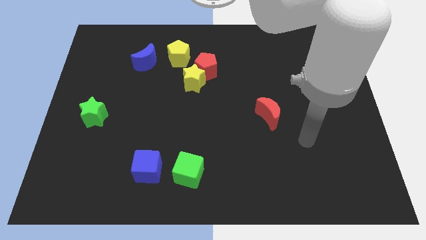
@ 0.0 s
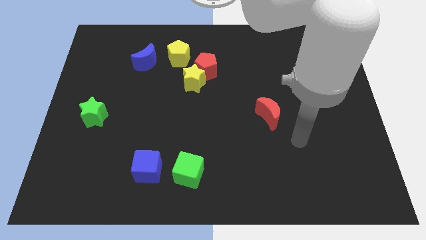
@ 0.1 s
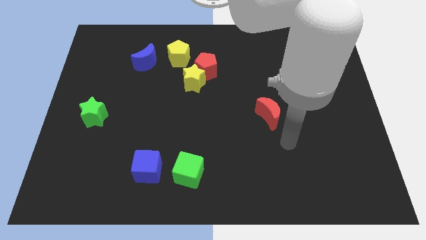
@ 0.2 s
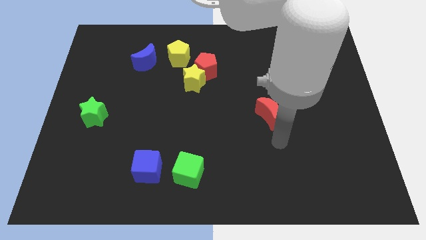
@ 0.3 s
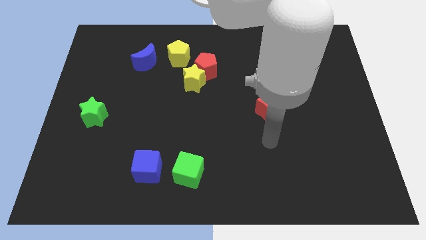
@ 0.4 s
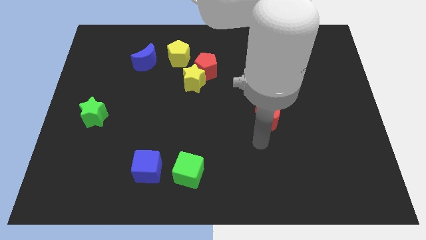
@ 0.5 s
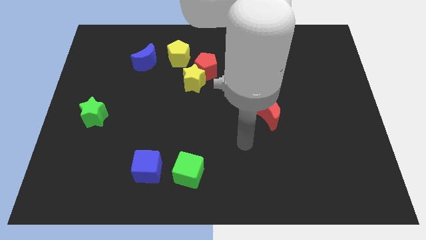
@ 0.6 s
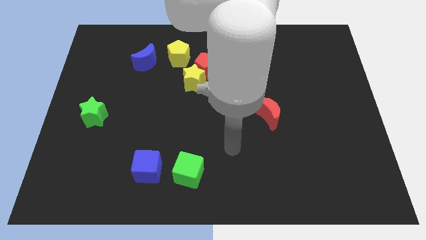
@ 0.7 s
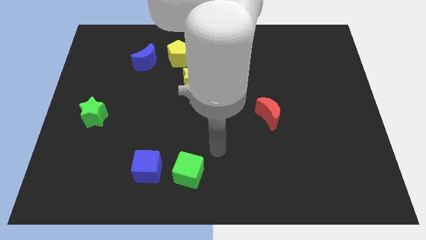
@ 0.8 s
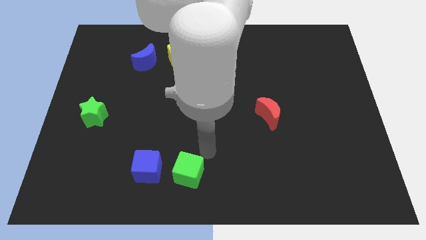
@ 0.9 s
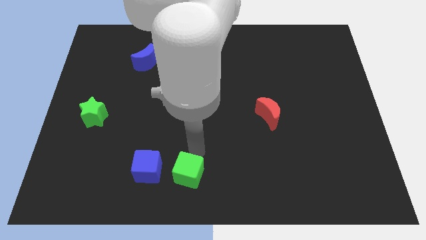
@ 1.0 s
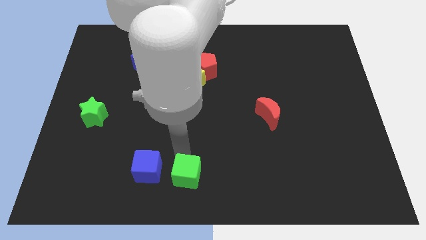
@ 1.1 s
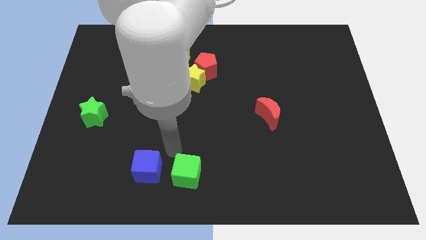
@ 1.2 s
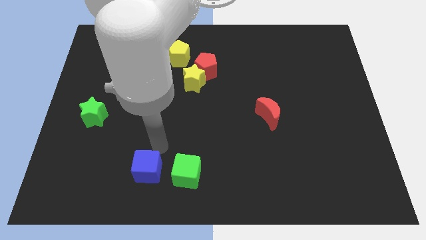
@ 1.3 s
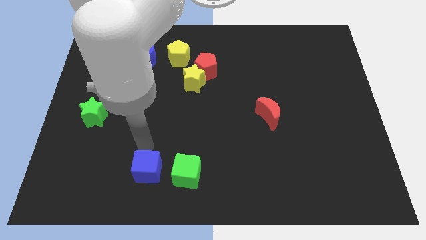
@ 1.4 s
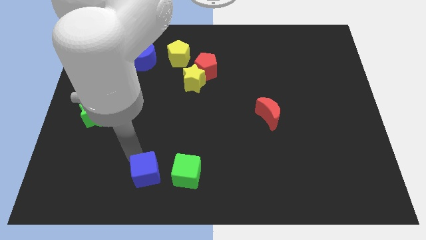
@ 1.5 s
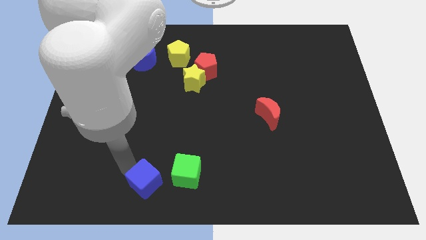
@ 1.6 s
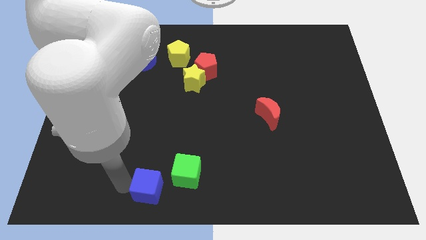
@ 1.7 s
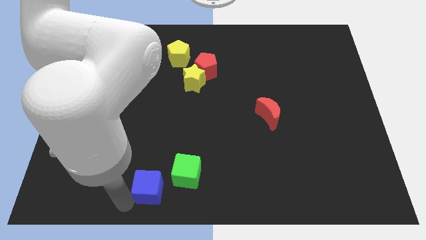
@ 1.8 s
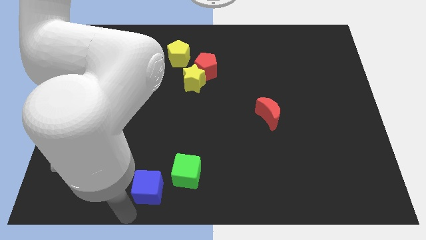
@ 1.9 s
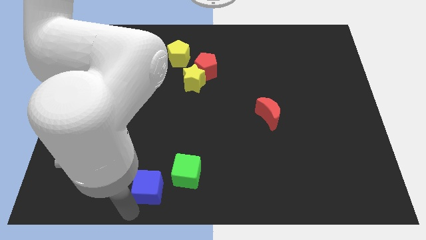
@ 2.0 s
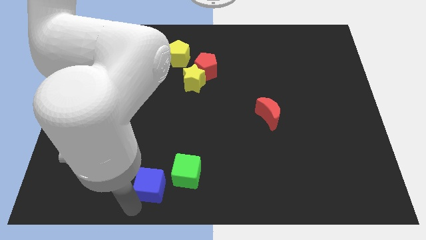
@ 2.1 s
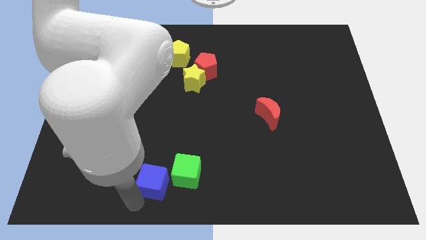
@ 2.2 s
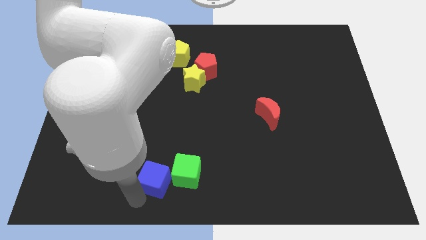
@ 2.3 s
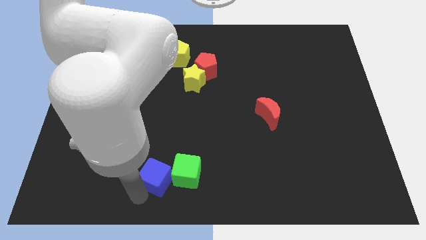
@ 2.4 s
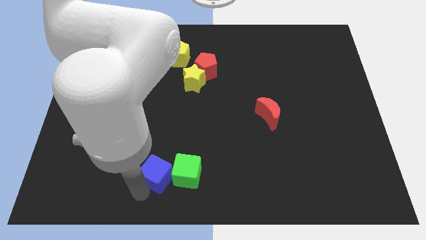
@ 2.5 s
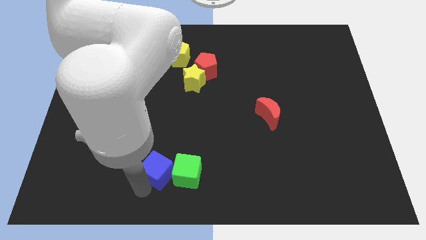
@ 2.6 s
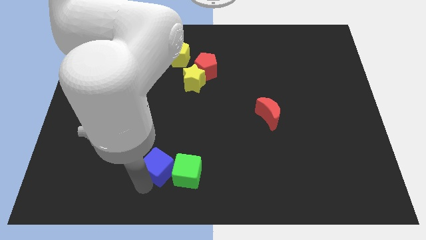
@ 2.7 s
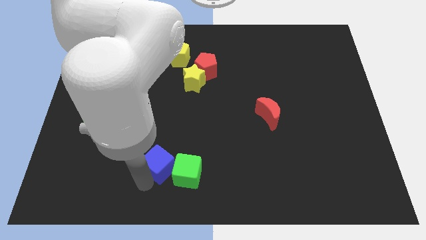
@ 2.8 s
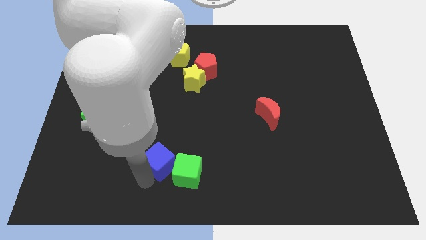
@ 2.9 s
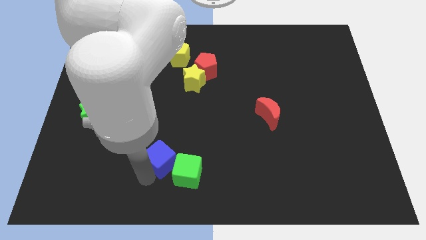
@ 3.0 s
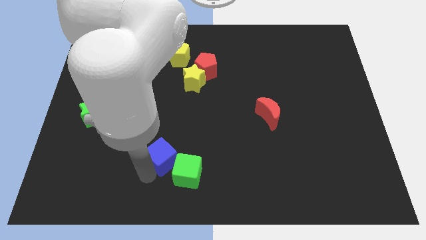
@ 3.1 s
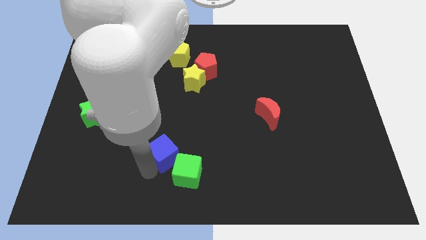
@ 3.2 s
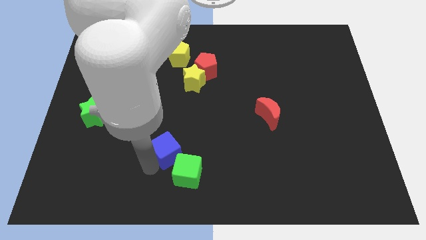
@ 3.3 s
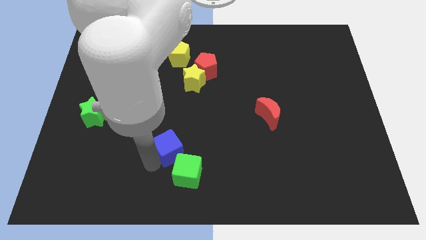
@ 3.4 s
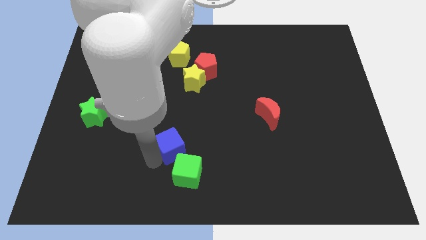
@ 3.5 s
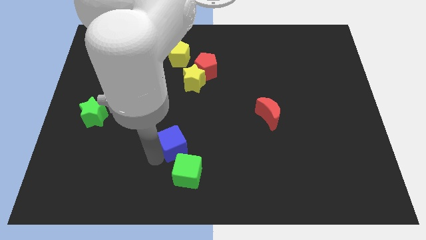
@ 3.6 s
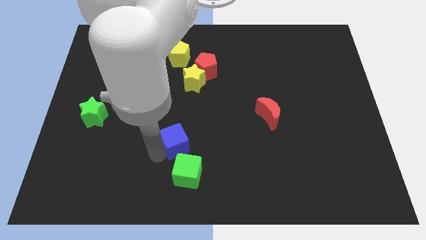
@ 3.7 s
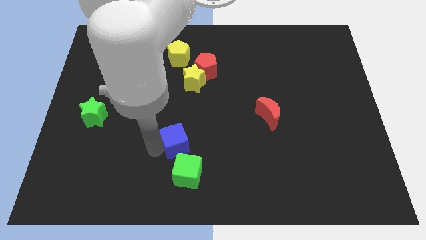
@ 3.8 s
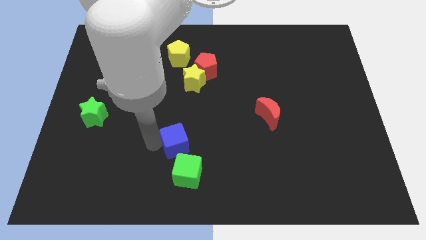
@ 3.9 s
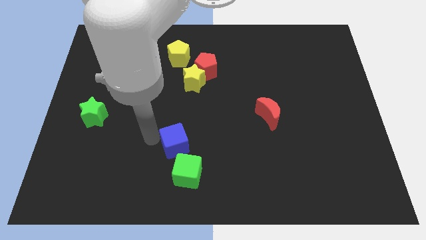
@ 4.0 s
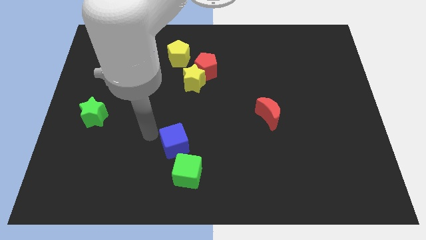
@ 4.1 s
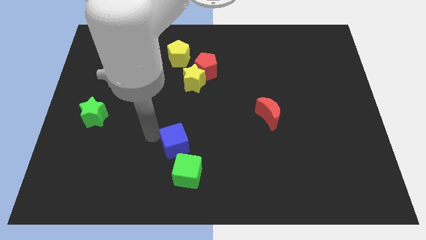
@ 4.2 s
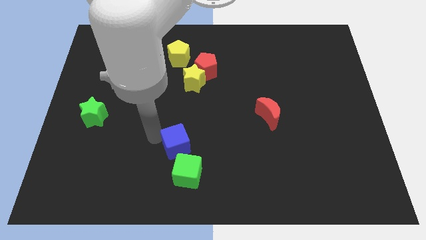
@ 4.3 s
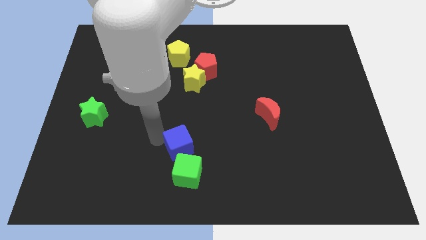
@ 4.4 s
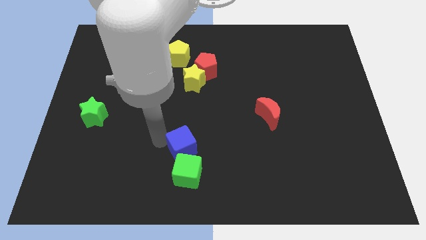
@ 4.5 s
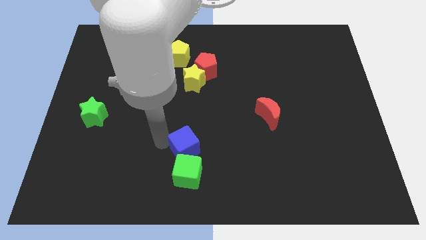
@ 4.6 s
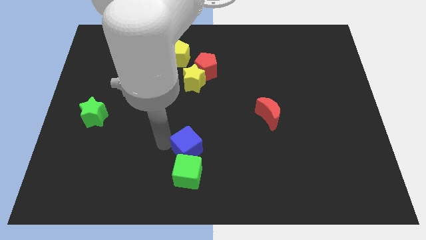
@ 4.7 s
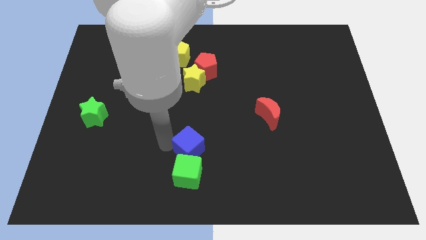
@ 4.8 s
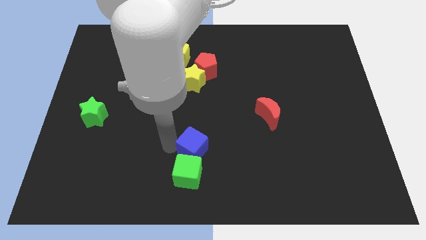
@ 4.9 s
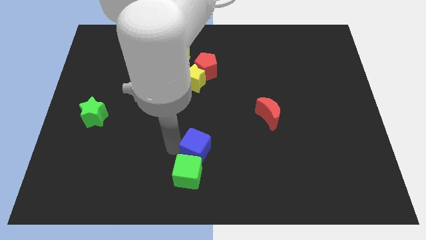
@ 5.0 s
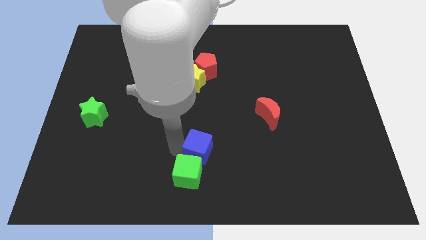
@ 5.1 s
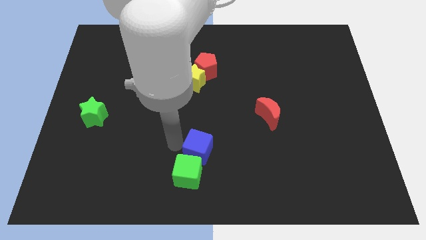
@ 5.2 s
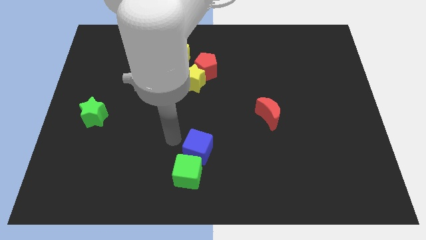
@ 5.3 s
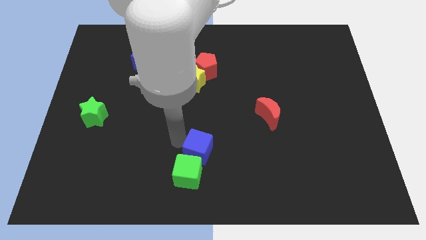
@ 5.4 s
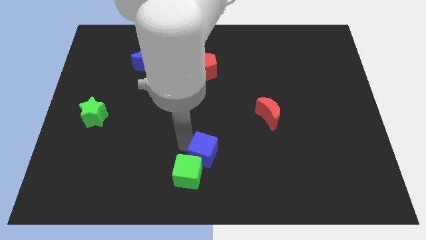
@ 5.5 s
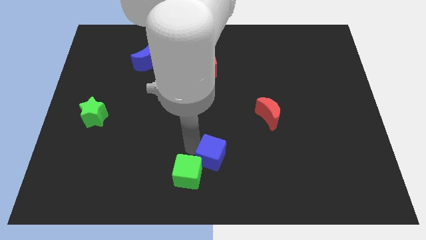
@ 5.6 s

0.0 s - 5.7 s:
move the blue cube to the right side of the green cube

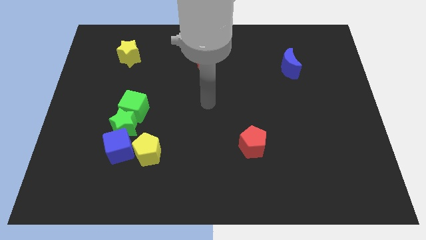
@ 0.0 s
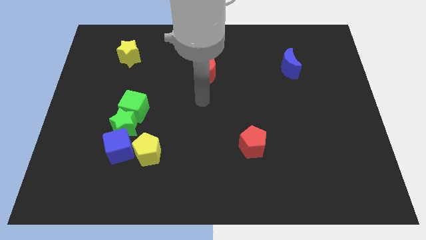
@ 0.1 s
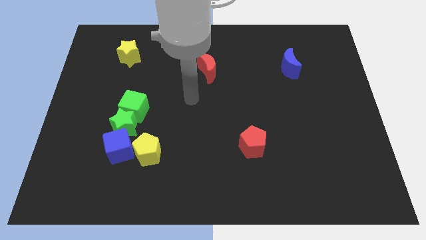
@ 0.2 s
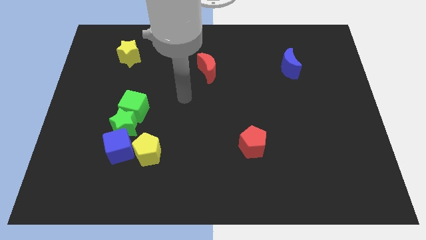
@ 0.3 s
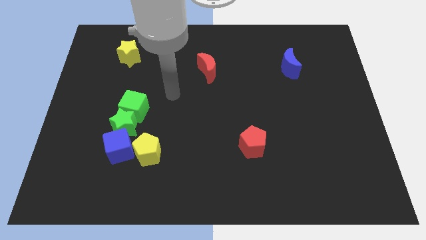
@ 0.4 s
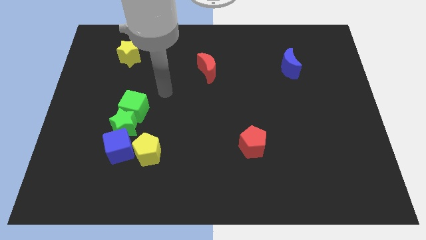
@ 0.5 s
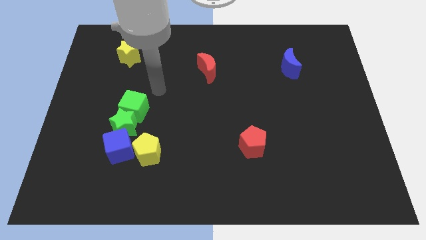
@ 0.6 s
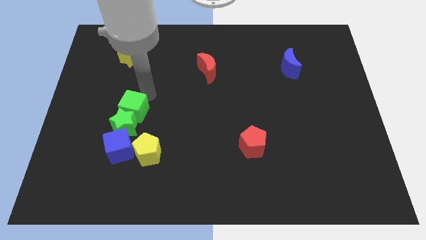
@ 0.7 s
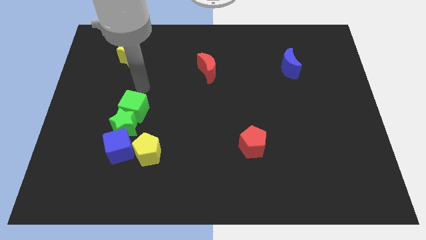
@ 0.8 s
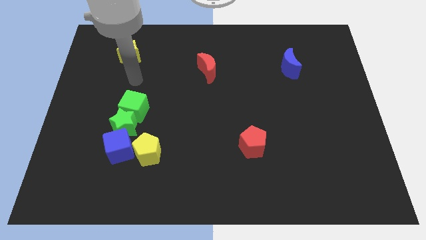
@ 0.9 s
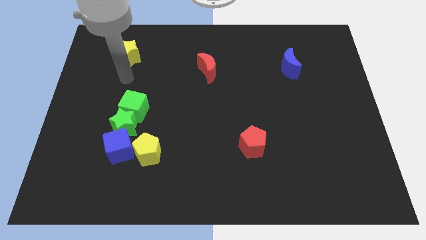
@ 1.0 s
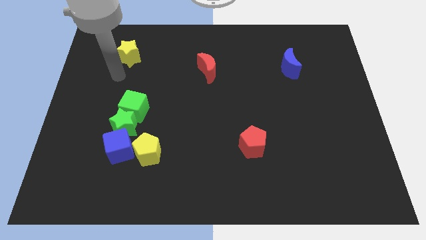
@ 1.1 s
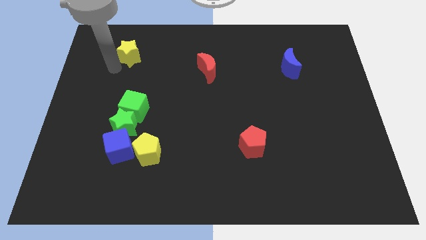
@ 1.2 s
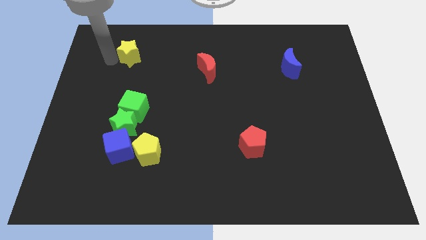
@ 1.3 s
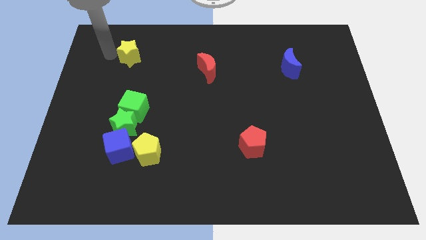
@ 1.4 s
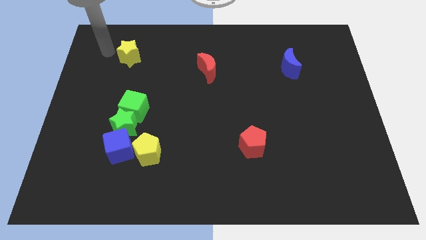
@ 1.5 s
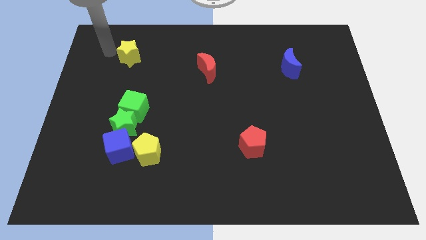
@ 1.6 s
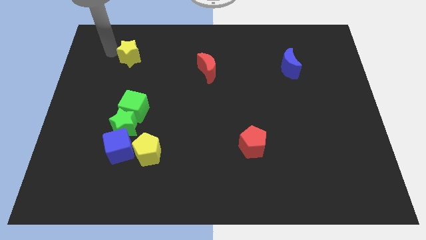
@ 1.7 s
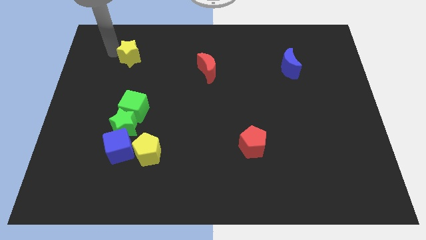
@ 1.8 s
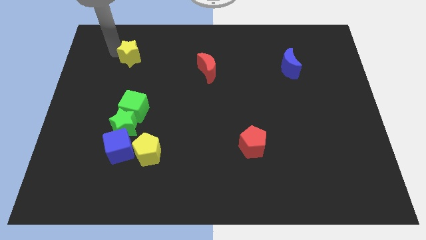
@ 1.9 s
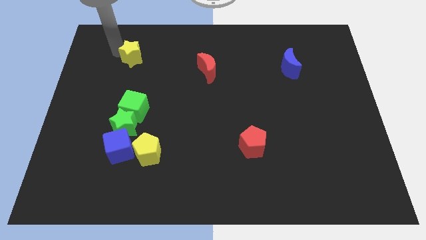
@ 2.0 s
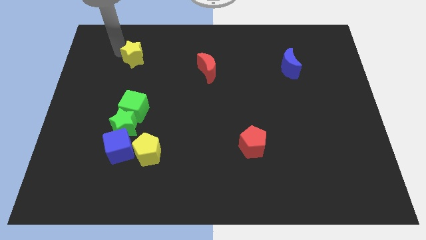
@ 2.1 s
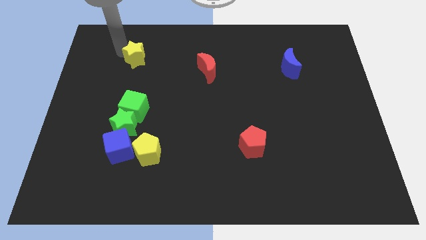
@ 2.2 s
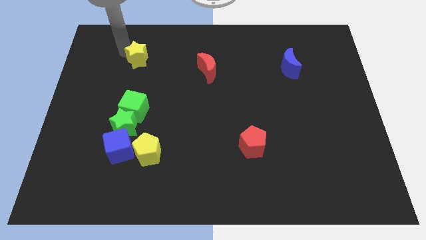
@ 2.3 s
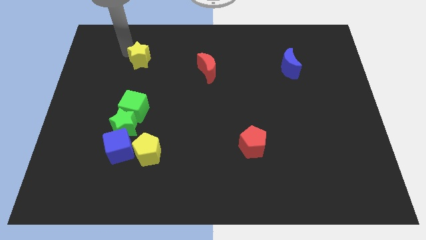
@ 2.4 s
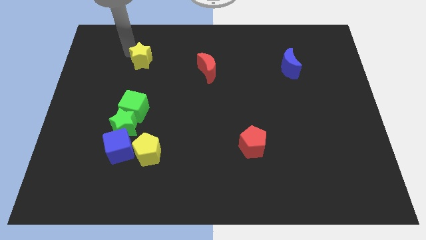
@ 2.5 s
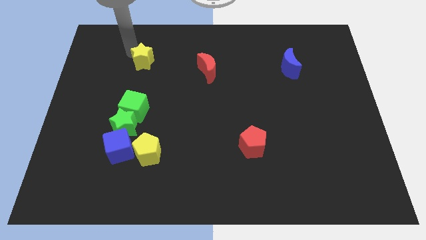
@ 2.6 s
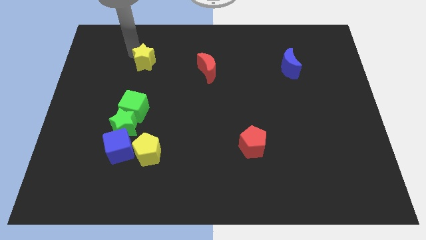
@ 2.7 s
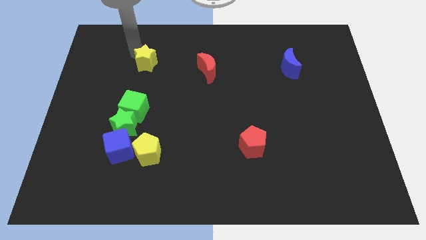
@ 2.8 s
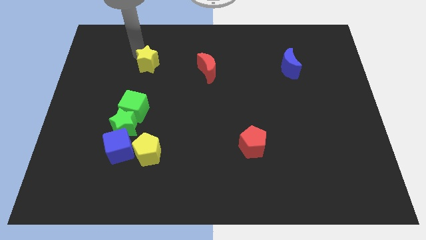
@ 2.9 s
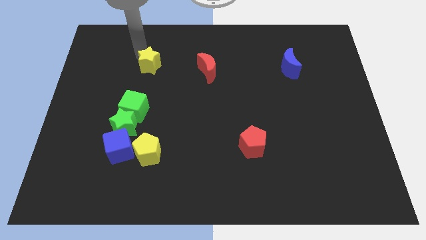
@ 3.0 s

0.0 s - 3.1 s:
slide the yellow star just left of the red moon
